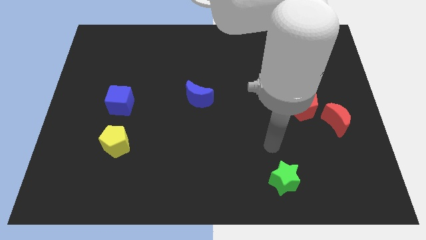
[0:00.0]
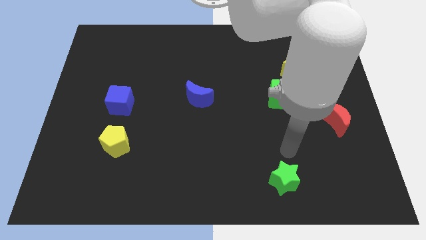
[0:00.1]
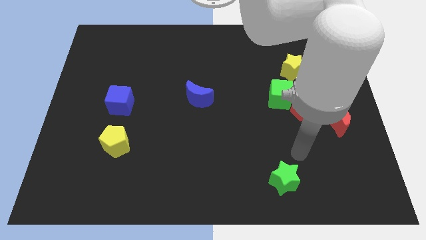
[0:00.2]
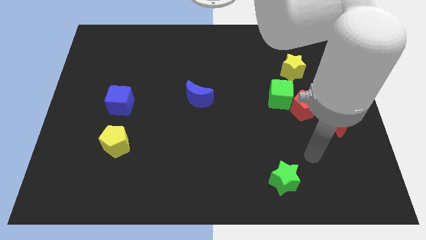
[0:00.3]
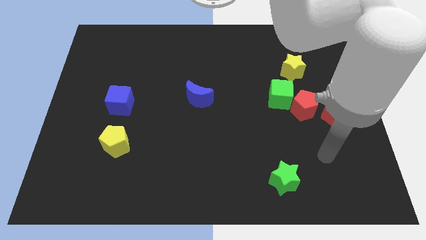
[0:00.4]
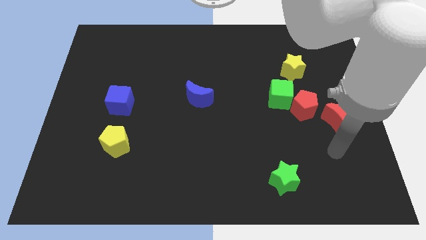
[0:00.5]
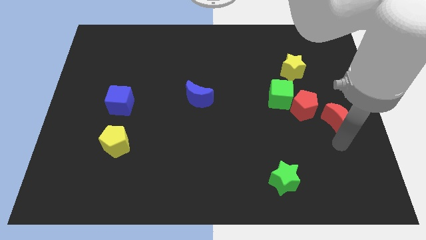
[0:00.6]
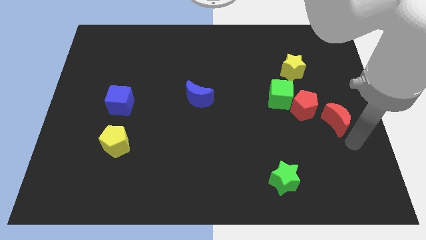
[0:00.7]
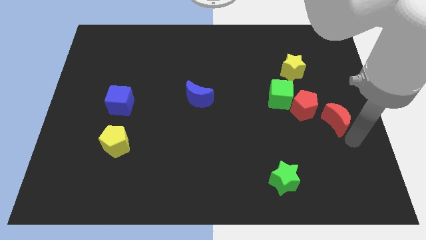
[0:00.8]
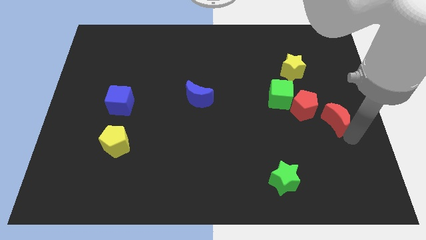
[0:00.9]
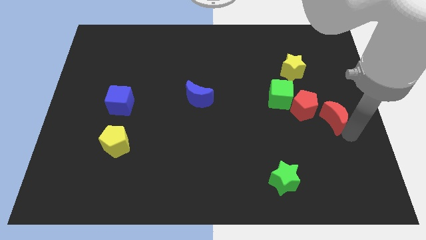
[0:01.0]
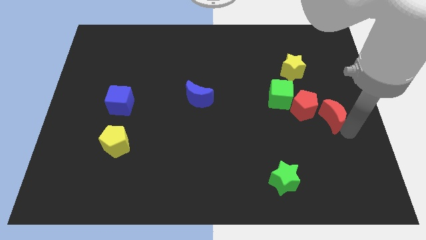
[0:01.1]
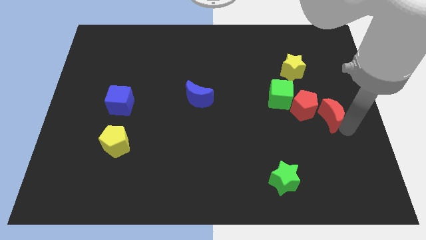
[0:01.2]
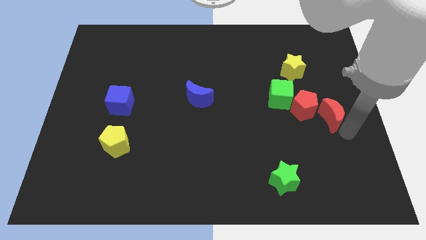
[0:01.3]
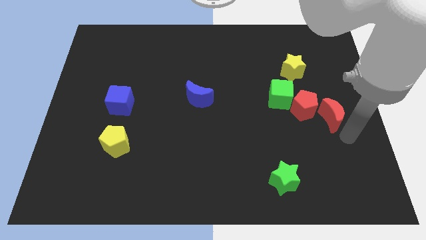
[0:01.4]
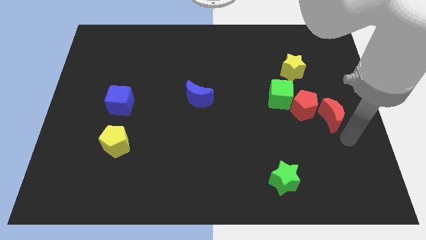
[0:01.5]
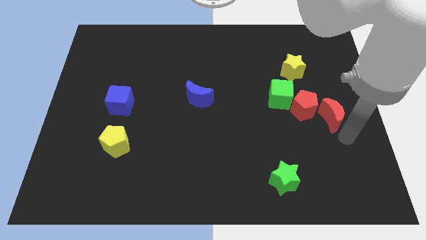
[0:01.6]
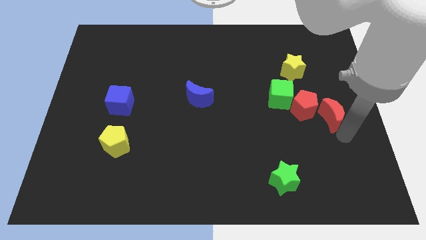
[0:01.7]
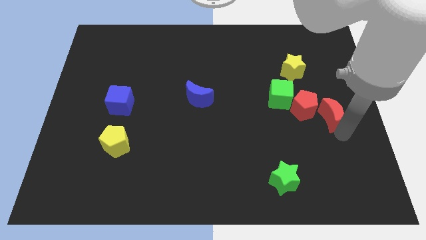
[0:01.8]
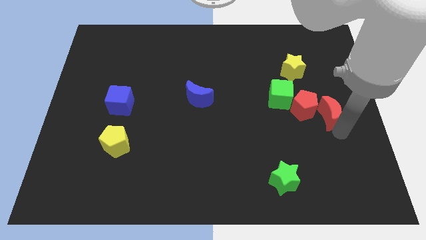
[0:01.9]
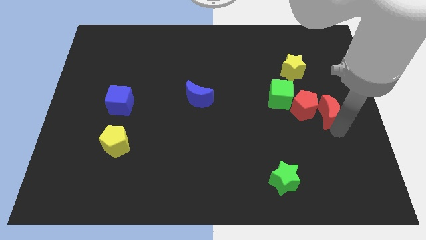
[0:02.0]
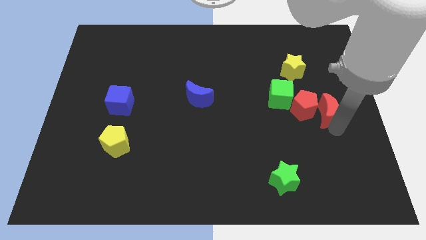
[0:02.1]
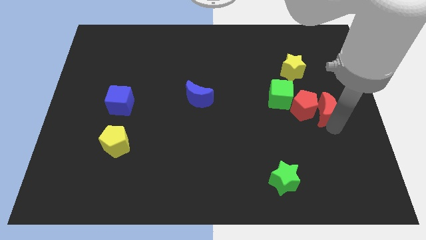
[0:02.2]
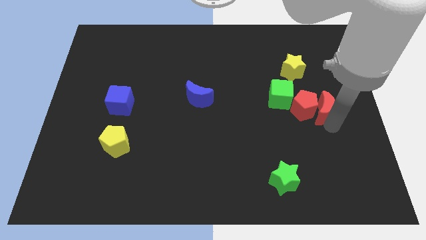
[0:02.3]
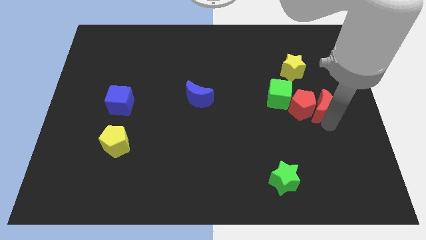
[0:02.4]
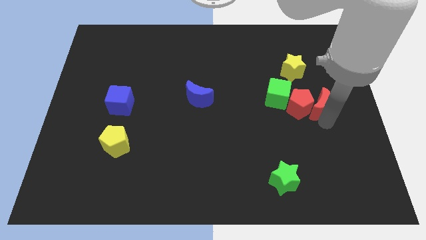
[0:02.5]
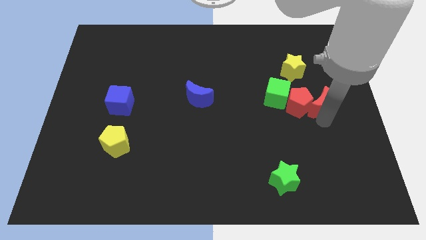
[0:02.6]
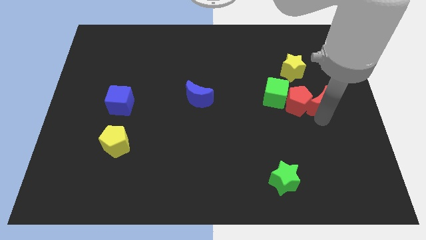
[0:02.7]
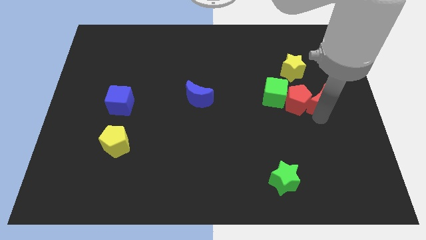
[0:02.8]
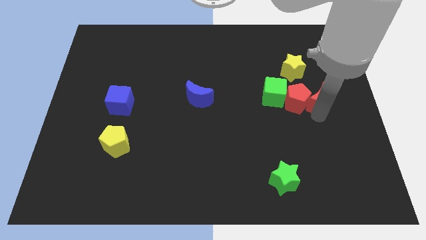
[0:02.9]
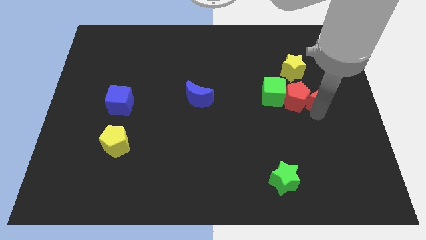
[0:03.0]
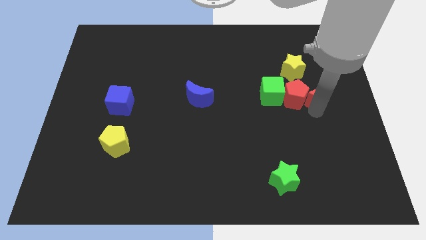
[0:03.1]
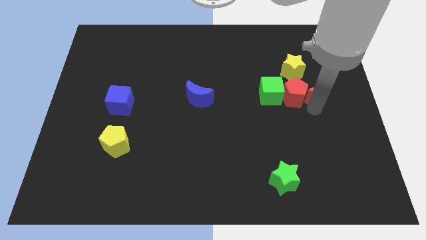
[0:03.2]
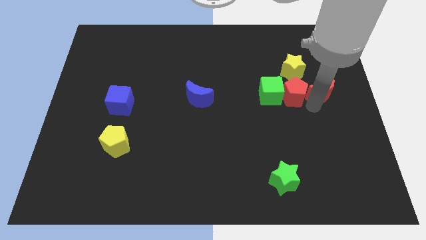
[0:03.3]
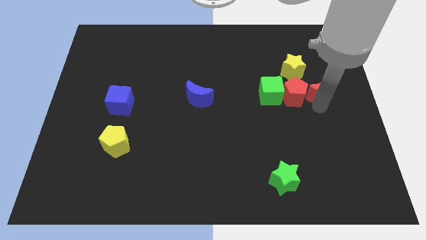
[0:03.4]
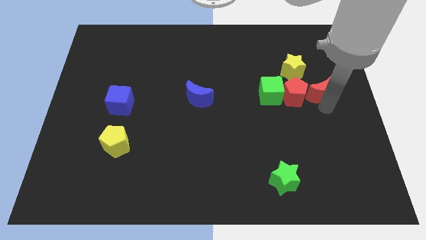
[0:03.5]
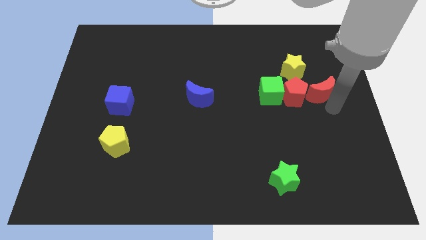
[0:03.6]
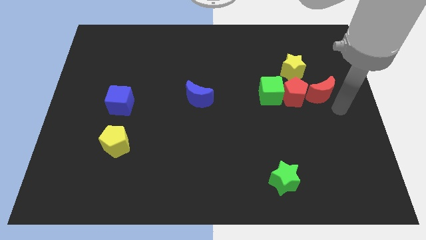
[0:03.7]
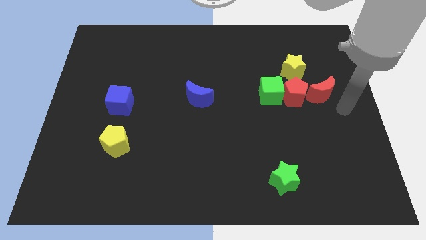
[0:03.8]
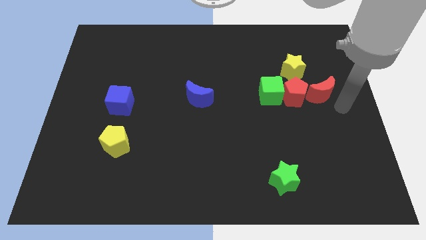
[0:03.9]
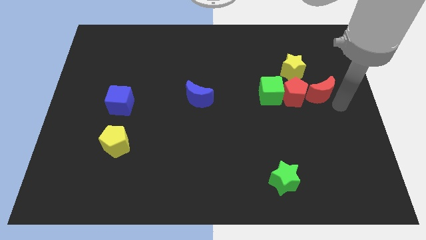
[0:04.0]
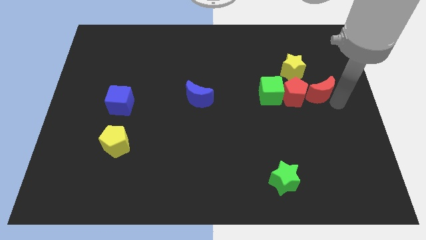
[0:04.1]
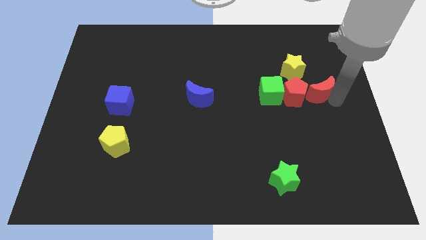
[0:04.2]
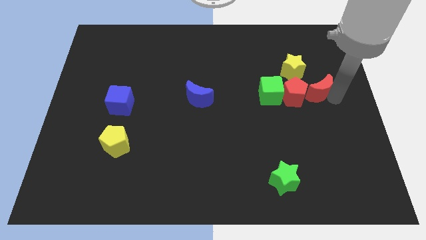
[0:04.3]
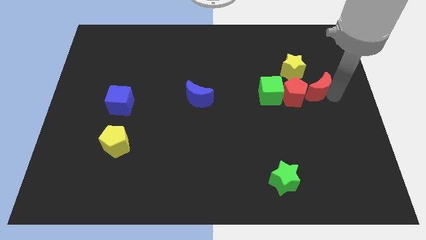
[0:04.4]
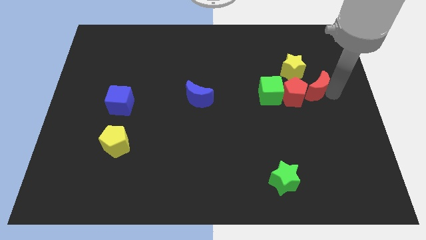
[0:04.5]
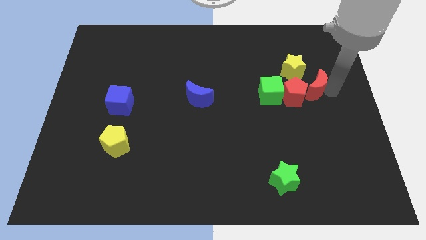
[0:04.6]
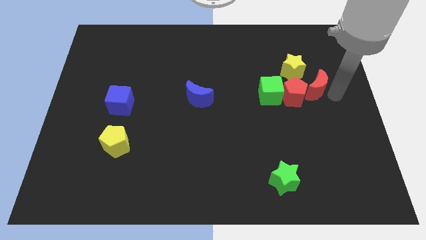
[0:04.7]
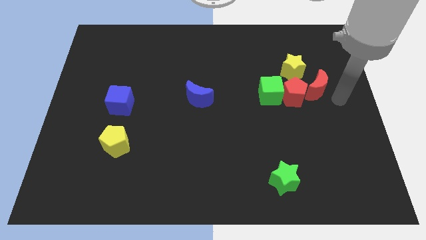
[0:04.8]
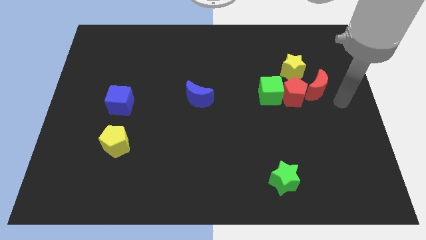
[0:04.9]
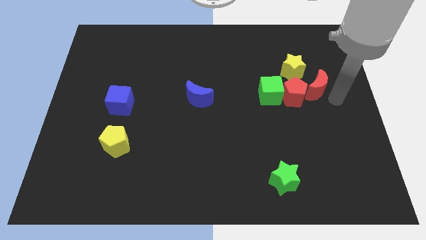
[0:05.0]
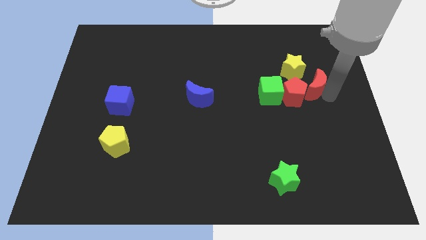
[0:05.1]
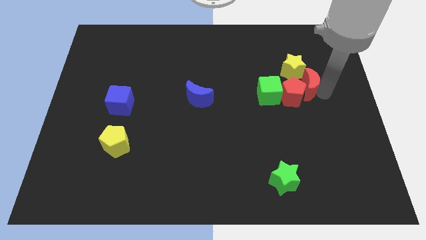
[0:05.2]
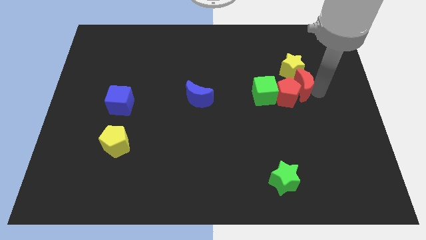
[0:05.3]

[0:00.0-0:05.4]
move the red moon close to the yellow star

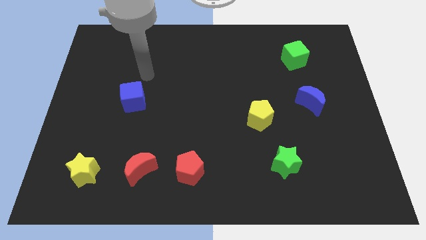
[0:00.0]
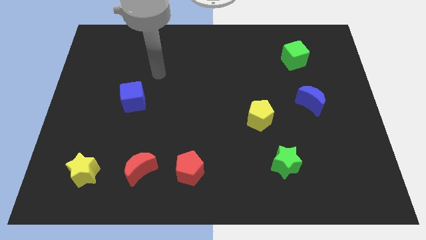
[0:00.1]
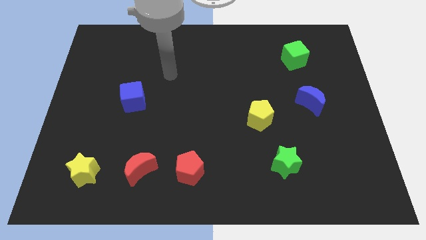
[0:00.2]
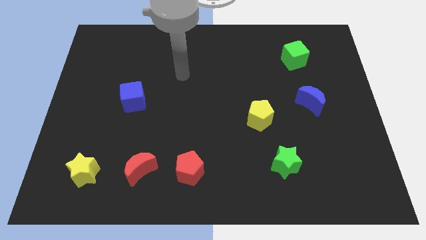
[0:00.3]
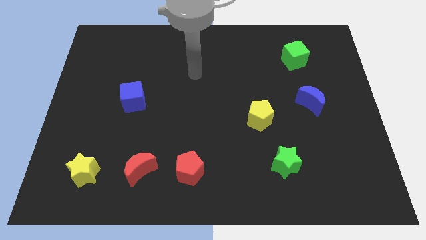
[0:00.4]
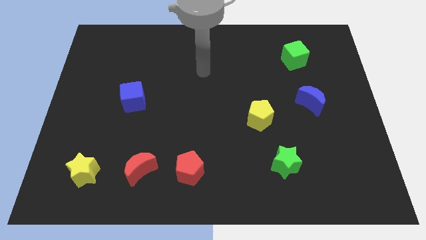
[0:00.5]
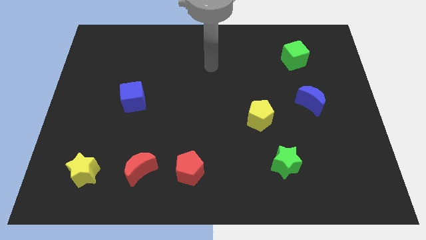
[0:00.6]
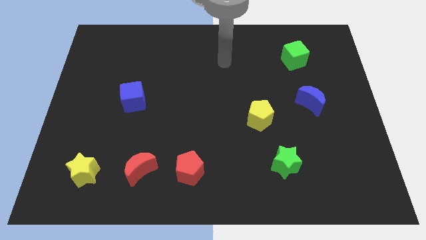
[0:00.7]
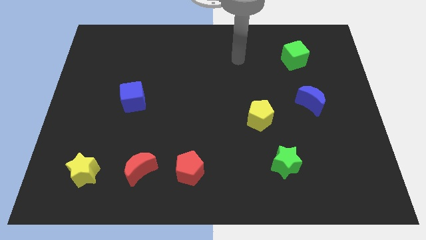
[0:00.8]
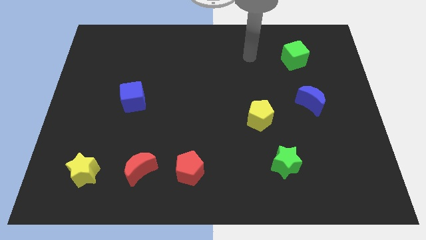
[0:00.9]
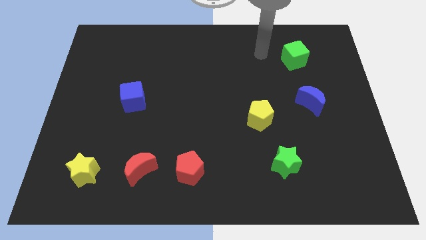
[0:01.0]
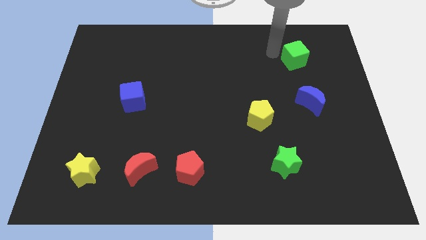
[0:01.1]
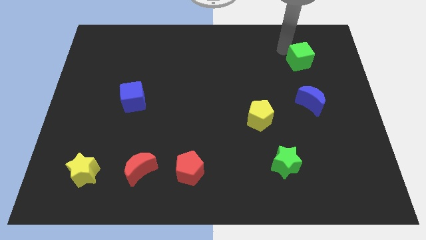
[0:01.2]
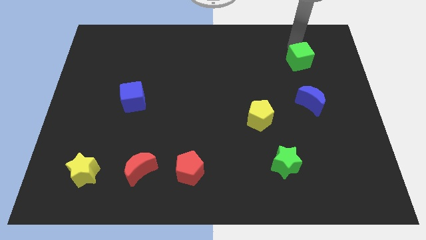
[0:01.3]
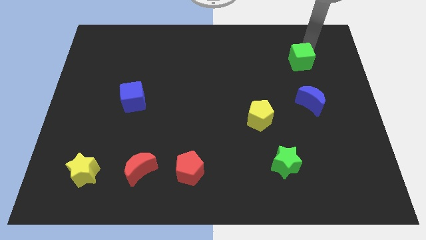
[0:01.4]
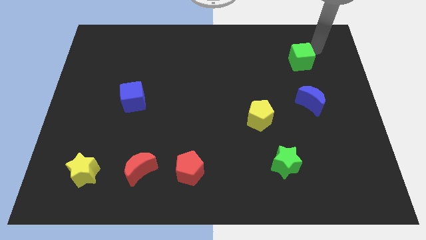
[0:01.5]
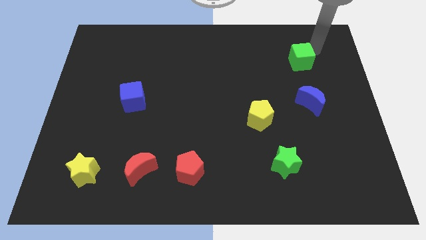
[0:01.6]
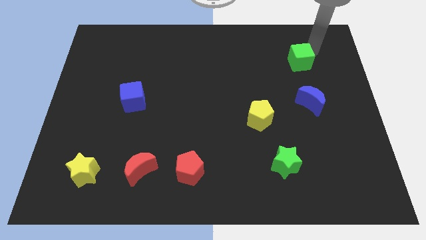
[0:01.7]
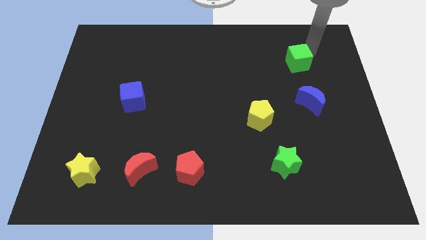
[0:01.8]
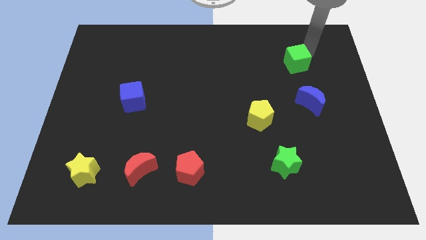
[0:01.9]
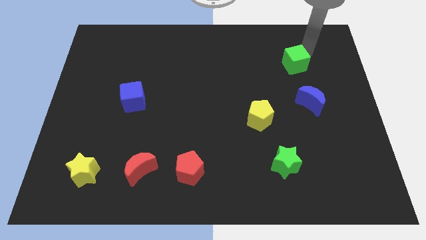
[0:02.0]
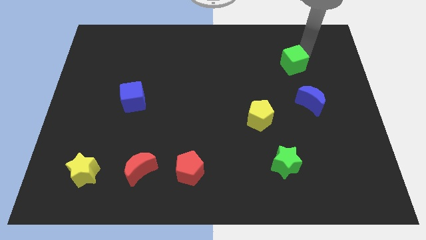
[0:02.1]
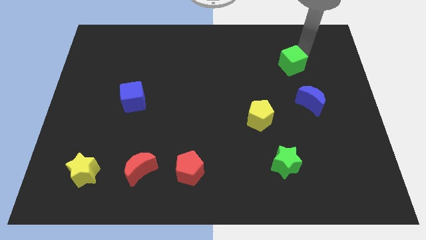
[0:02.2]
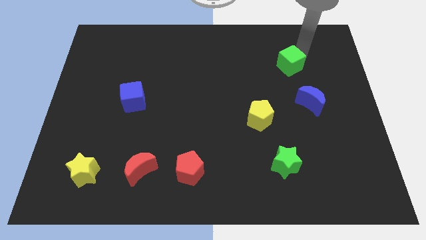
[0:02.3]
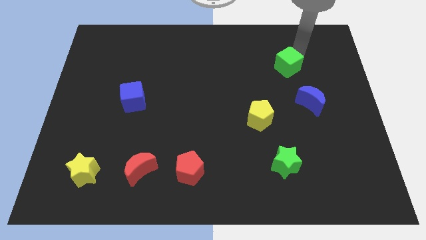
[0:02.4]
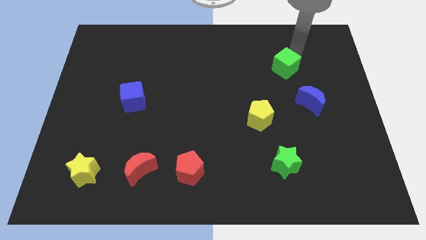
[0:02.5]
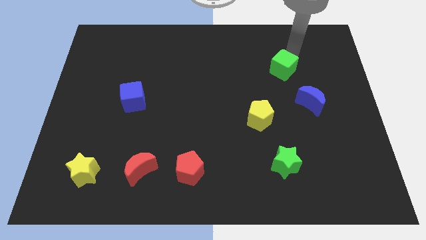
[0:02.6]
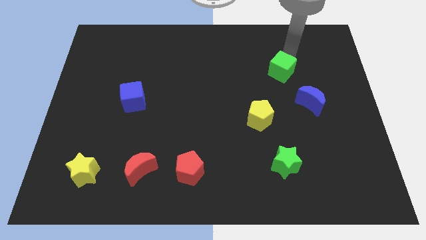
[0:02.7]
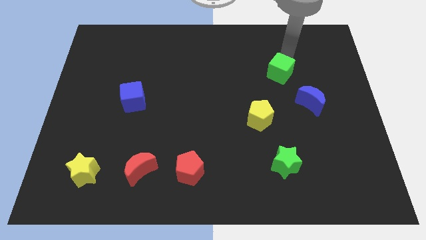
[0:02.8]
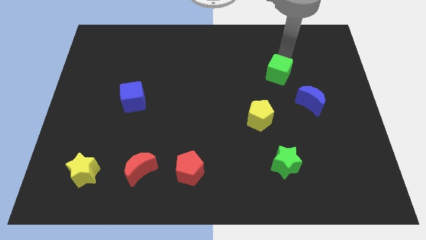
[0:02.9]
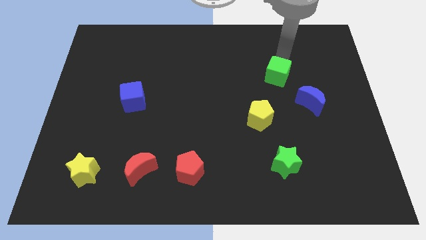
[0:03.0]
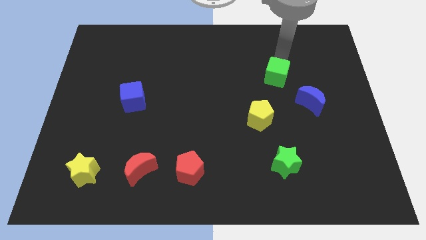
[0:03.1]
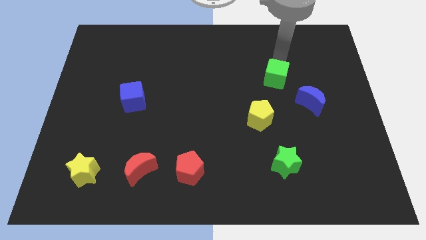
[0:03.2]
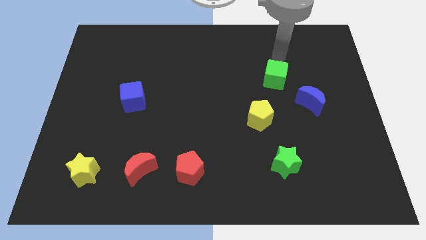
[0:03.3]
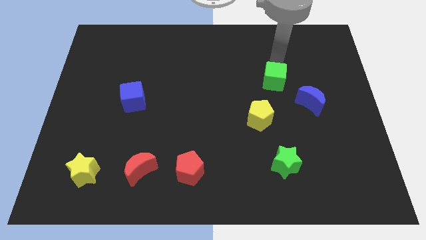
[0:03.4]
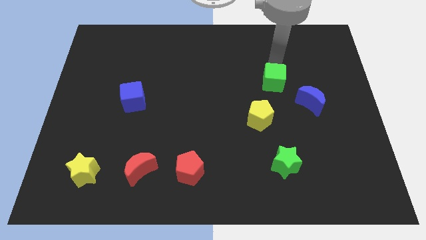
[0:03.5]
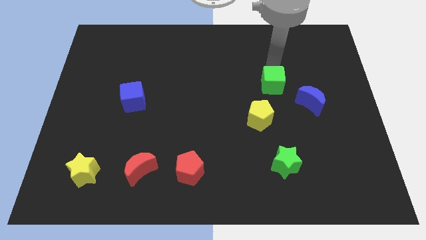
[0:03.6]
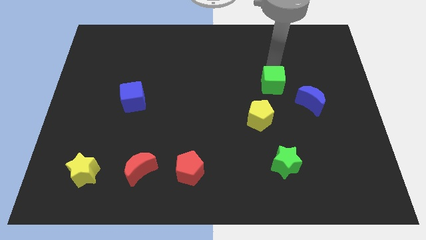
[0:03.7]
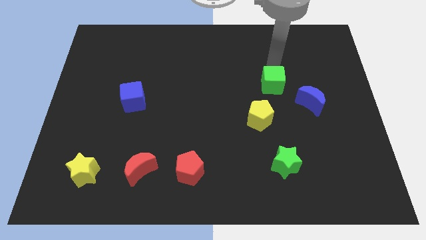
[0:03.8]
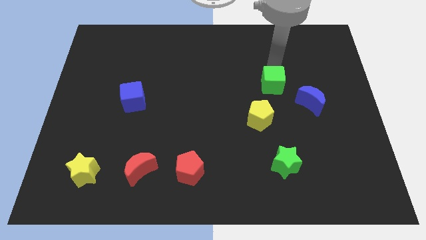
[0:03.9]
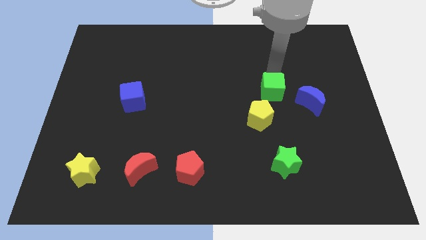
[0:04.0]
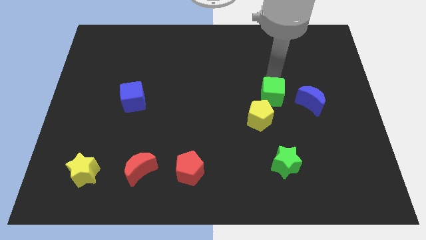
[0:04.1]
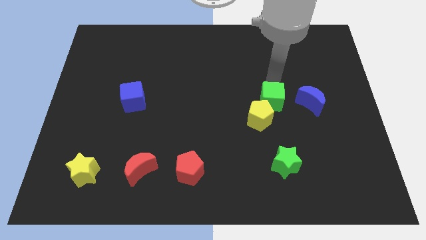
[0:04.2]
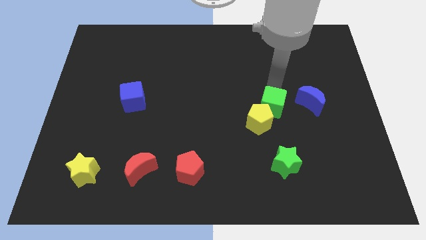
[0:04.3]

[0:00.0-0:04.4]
slide the green cube to the yellow pentagon
